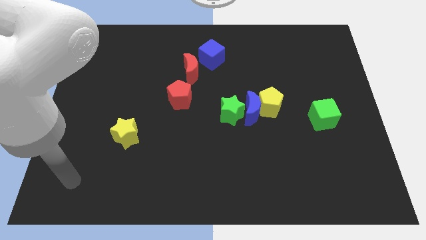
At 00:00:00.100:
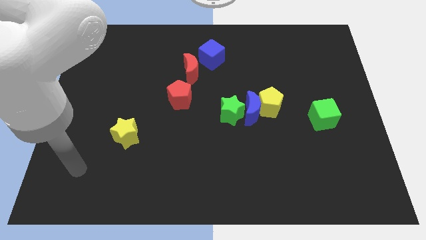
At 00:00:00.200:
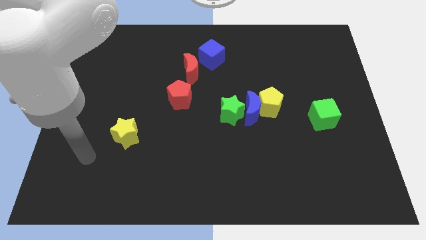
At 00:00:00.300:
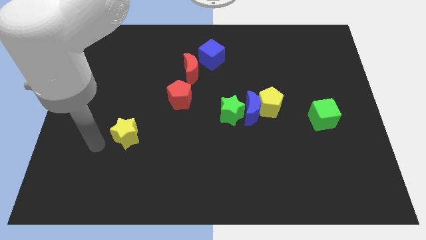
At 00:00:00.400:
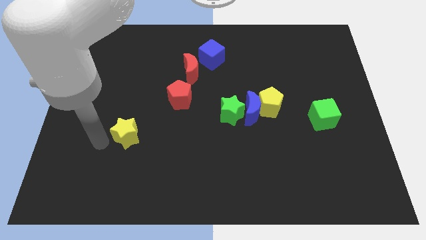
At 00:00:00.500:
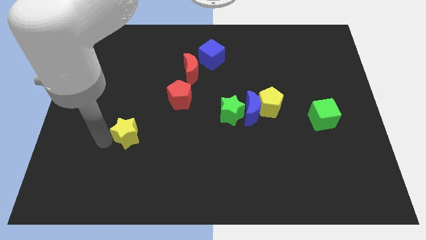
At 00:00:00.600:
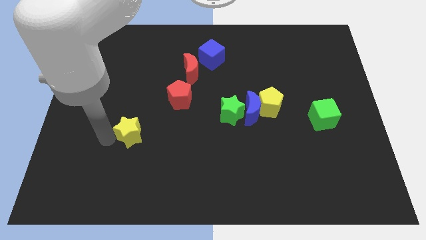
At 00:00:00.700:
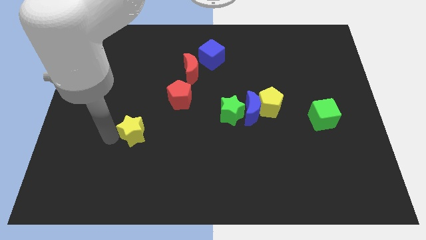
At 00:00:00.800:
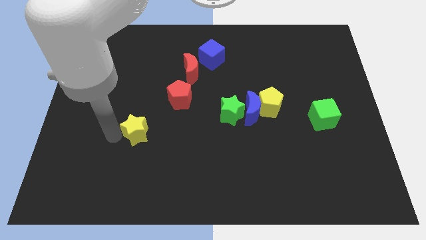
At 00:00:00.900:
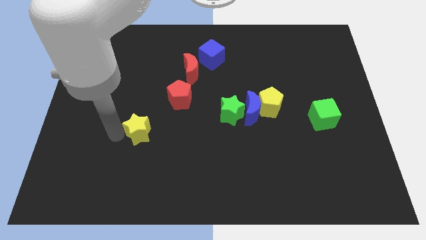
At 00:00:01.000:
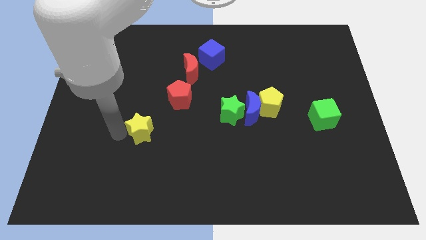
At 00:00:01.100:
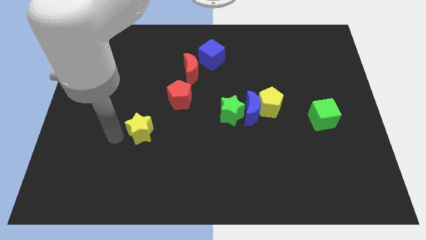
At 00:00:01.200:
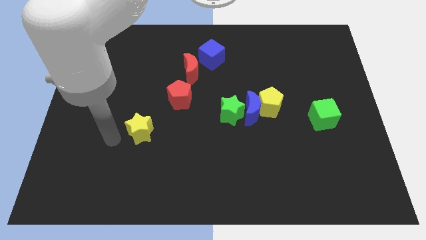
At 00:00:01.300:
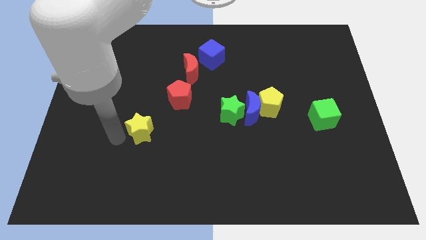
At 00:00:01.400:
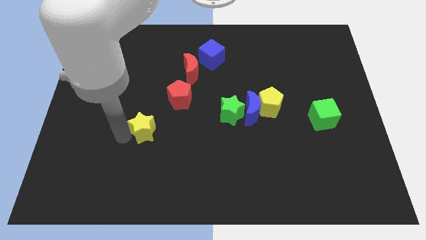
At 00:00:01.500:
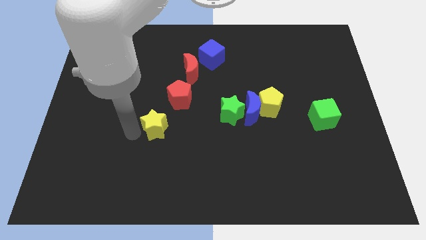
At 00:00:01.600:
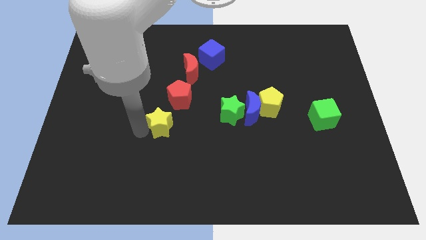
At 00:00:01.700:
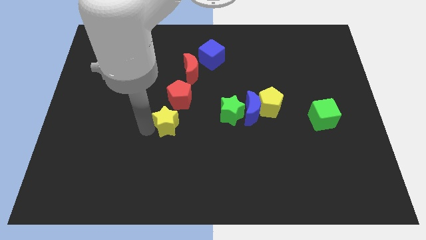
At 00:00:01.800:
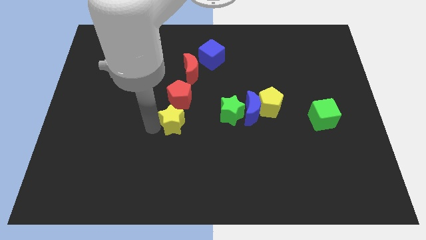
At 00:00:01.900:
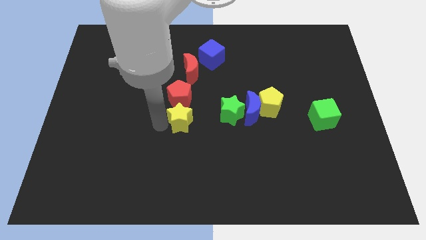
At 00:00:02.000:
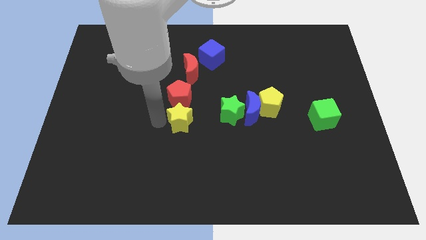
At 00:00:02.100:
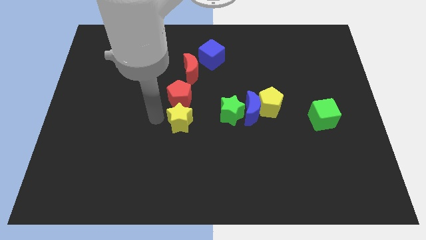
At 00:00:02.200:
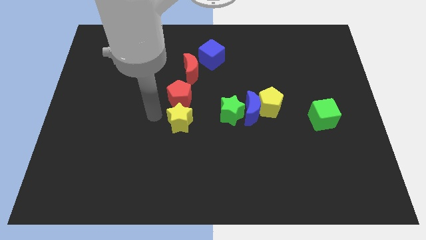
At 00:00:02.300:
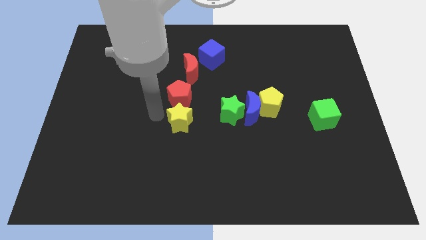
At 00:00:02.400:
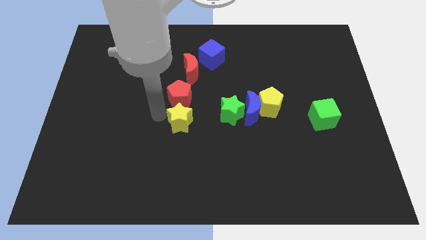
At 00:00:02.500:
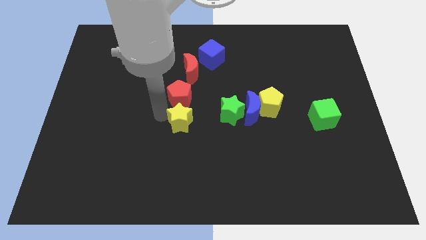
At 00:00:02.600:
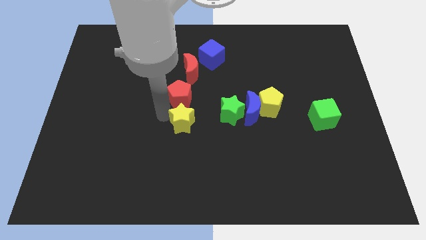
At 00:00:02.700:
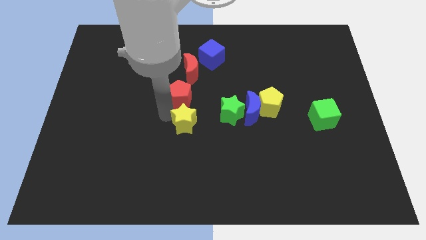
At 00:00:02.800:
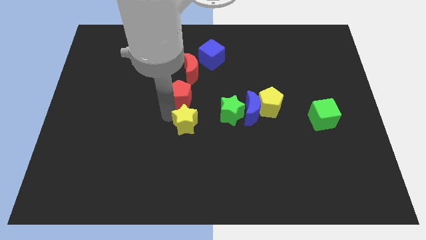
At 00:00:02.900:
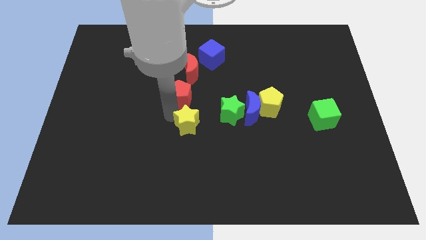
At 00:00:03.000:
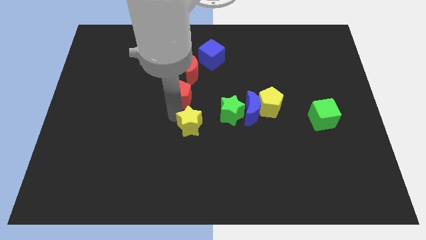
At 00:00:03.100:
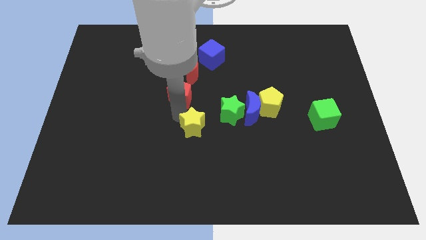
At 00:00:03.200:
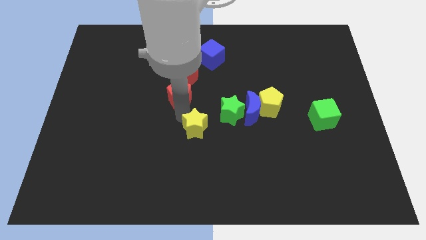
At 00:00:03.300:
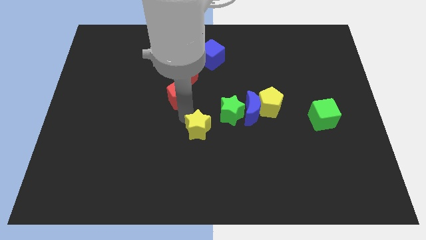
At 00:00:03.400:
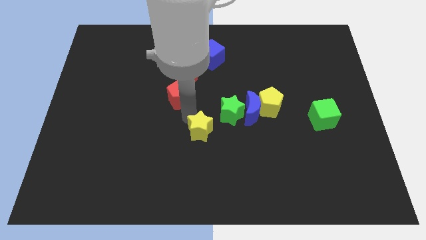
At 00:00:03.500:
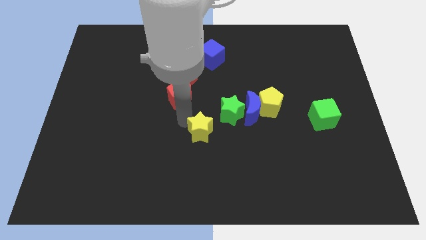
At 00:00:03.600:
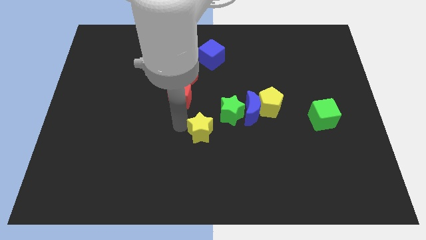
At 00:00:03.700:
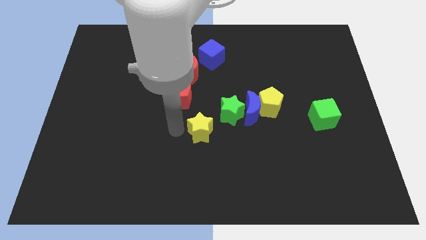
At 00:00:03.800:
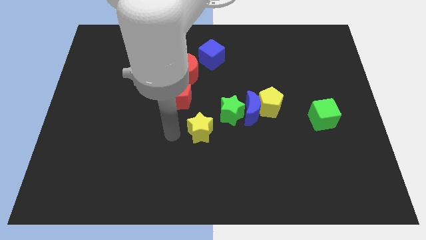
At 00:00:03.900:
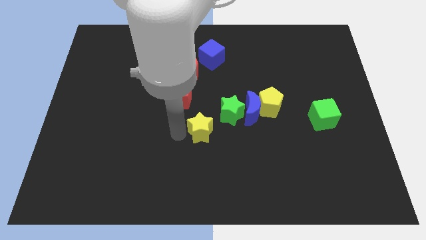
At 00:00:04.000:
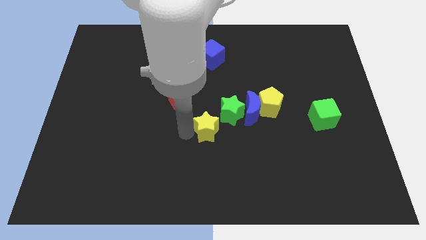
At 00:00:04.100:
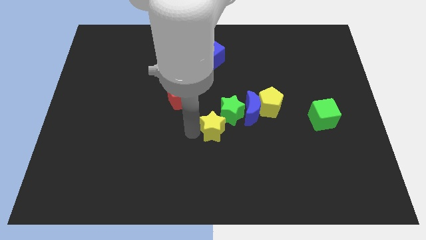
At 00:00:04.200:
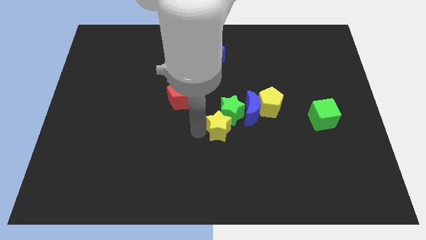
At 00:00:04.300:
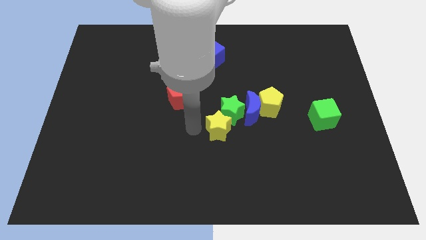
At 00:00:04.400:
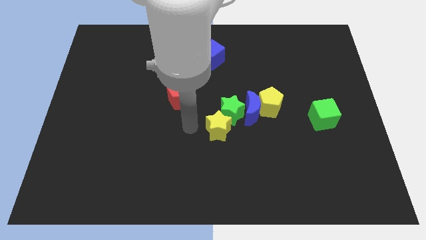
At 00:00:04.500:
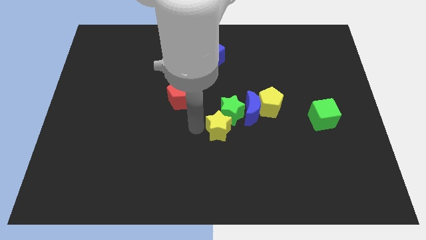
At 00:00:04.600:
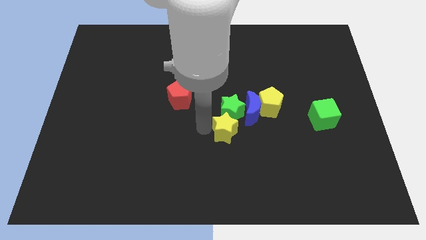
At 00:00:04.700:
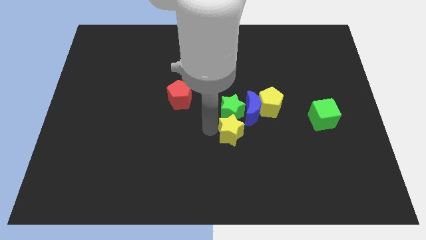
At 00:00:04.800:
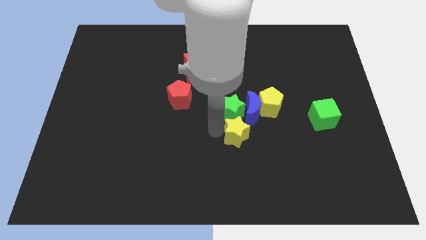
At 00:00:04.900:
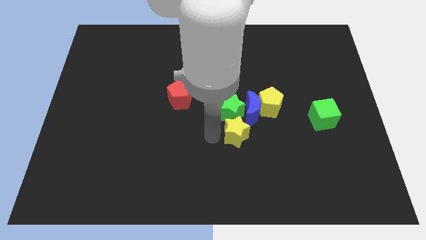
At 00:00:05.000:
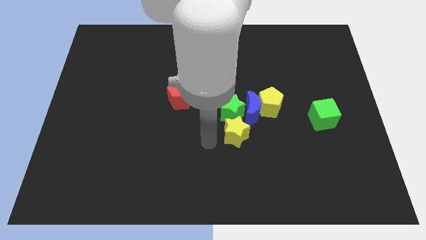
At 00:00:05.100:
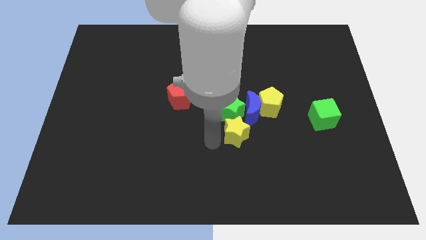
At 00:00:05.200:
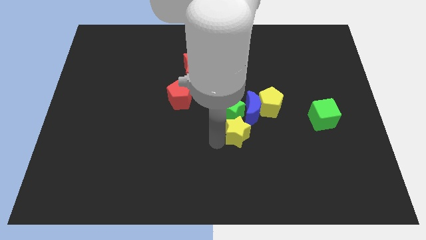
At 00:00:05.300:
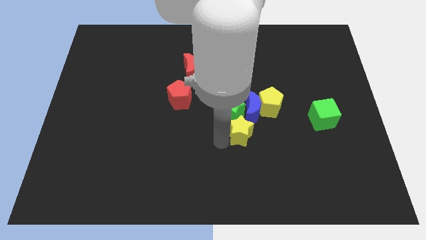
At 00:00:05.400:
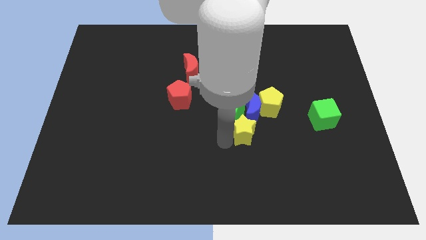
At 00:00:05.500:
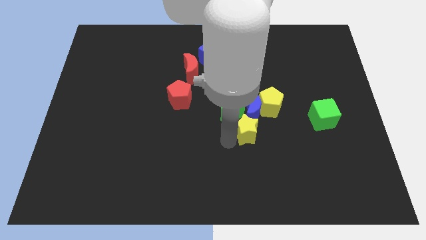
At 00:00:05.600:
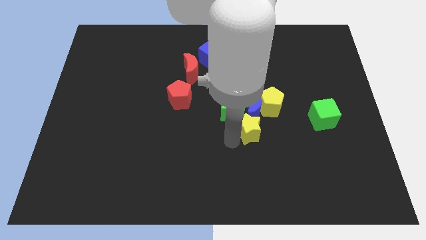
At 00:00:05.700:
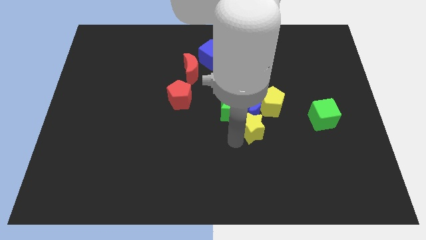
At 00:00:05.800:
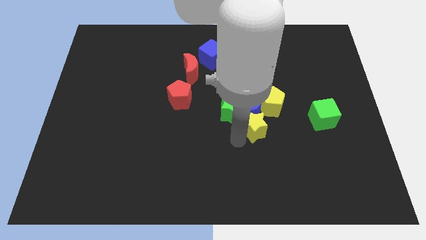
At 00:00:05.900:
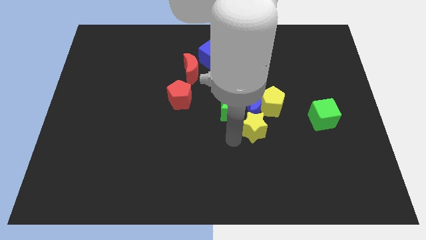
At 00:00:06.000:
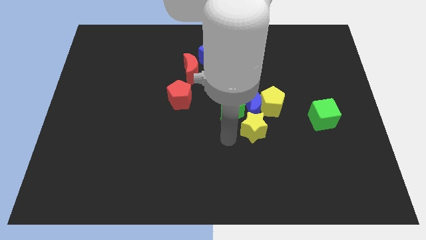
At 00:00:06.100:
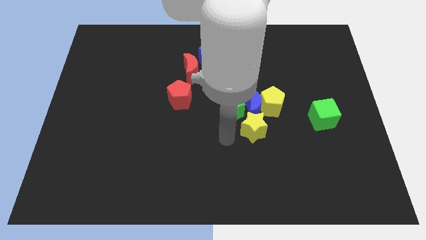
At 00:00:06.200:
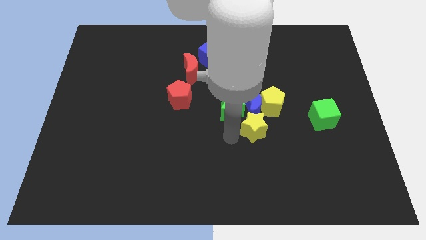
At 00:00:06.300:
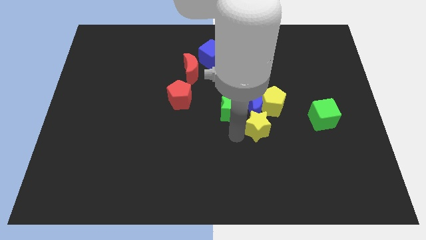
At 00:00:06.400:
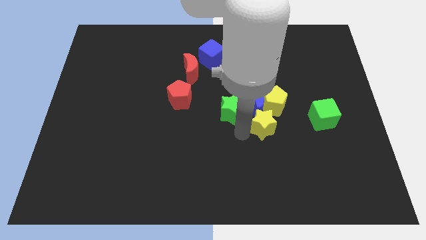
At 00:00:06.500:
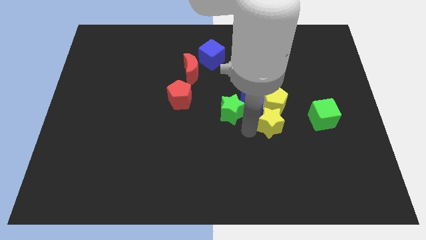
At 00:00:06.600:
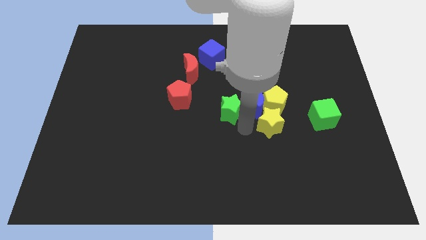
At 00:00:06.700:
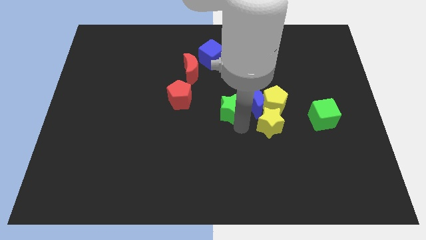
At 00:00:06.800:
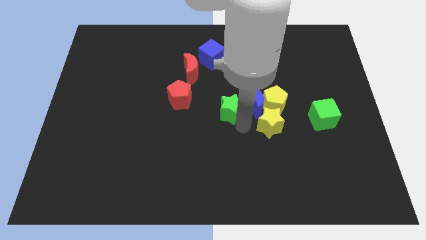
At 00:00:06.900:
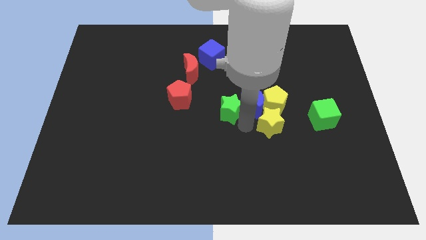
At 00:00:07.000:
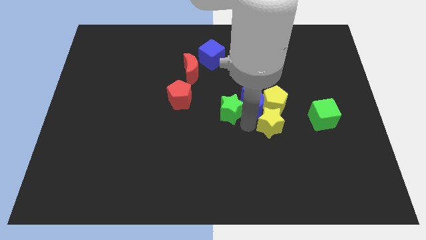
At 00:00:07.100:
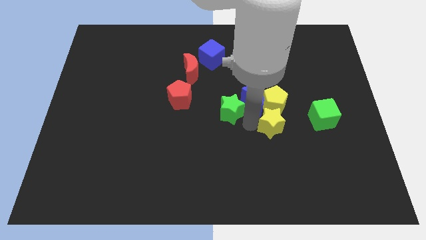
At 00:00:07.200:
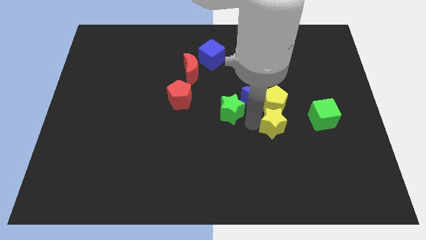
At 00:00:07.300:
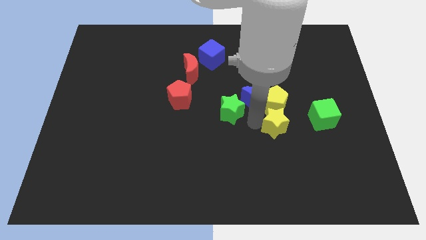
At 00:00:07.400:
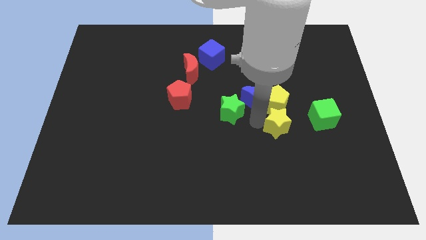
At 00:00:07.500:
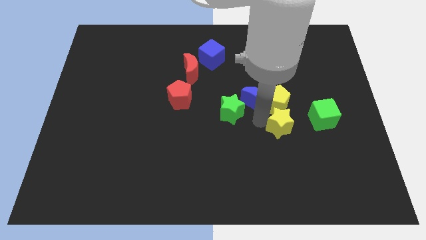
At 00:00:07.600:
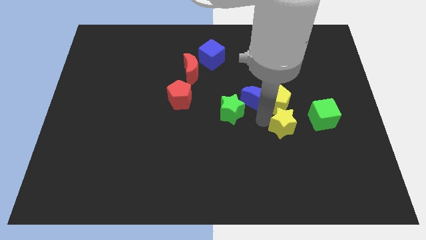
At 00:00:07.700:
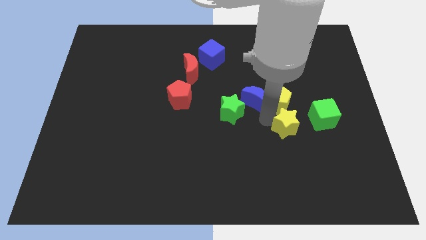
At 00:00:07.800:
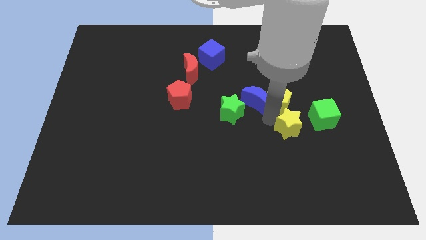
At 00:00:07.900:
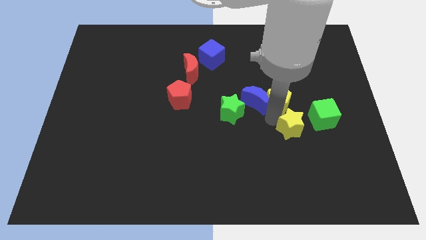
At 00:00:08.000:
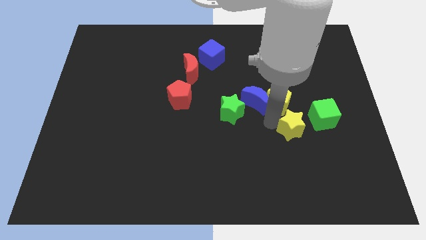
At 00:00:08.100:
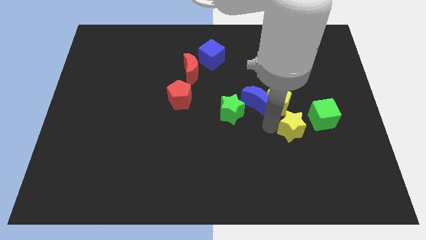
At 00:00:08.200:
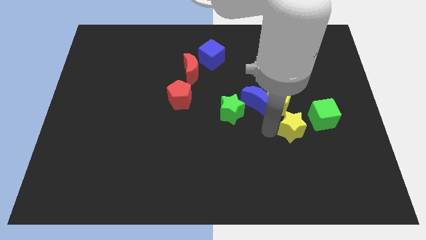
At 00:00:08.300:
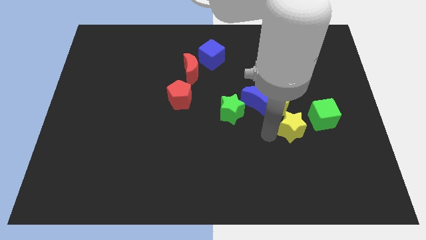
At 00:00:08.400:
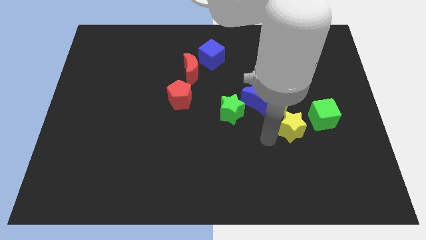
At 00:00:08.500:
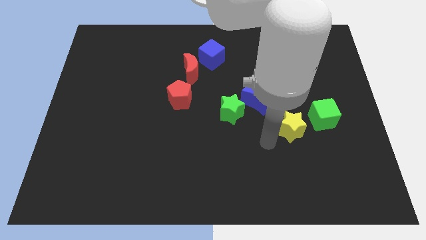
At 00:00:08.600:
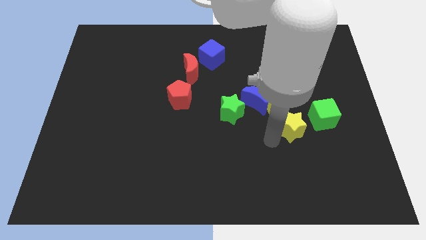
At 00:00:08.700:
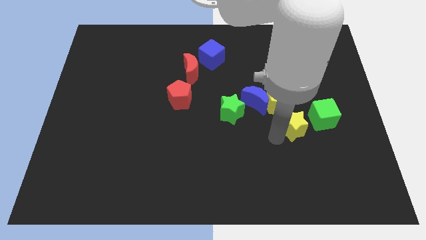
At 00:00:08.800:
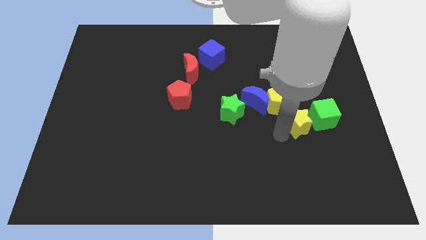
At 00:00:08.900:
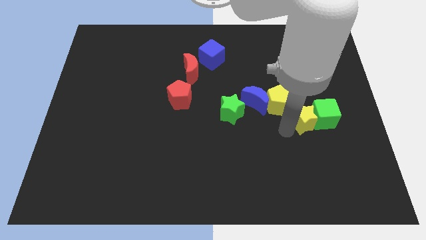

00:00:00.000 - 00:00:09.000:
move the yellow star next to the green cube
